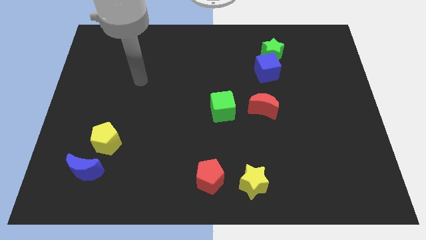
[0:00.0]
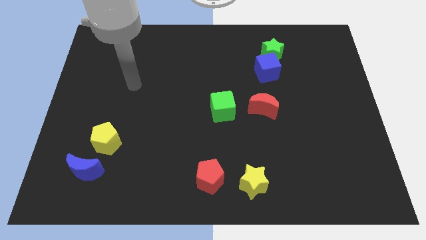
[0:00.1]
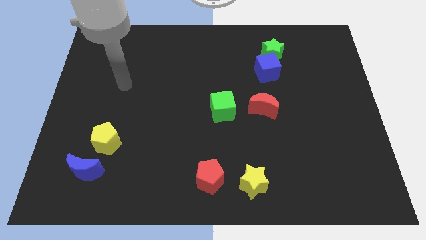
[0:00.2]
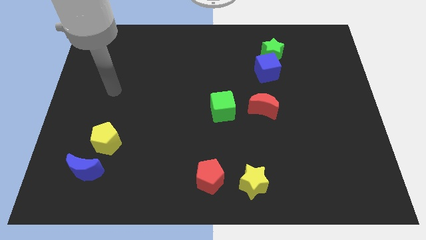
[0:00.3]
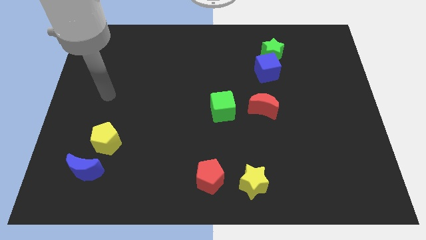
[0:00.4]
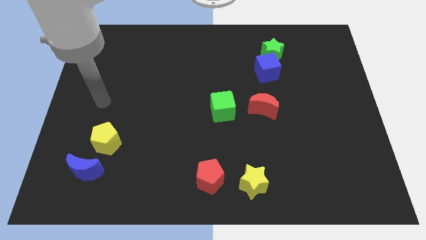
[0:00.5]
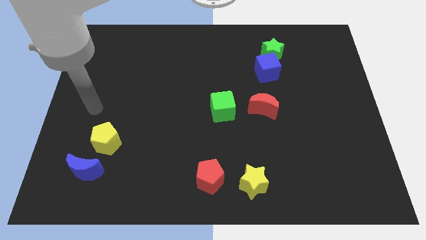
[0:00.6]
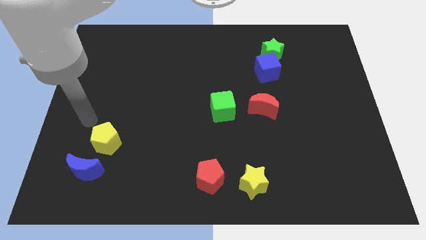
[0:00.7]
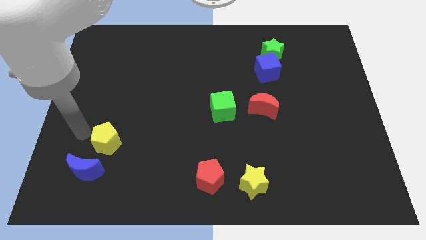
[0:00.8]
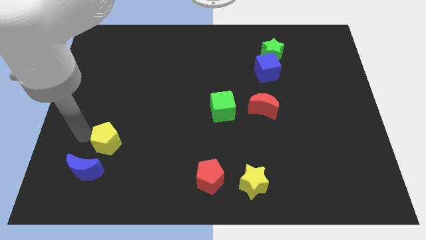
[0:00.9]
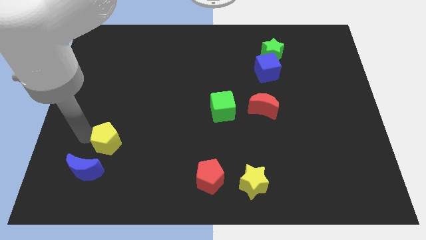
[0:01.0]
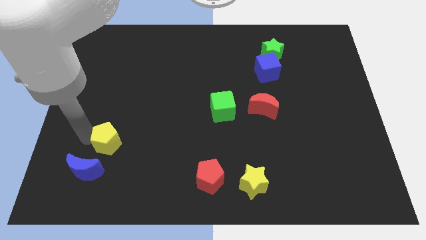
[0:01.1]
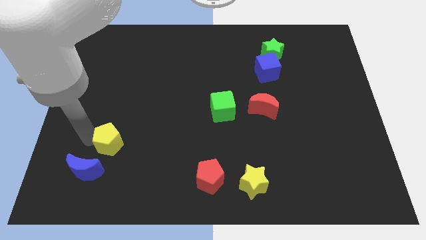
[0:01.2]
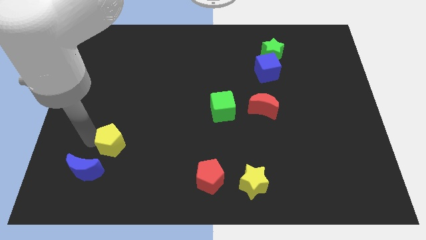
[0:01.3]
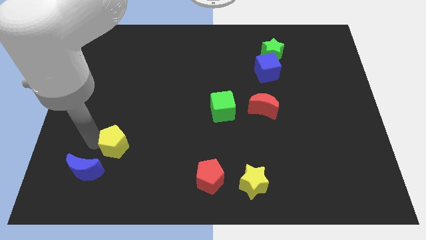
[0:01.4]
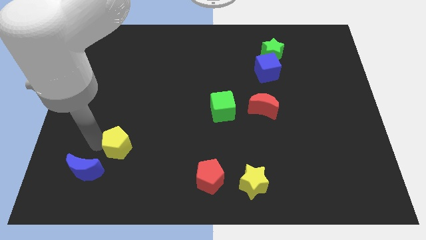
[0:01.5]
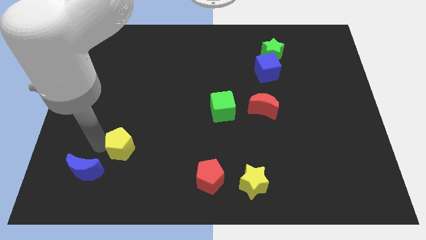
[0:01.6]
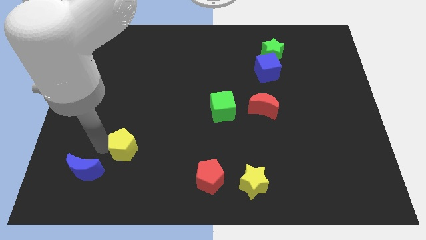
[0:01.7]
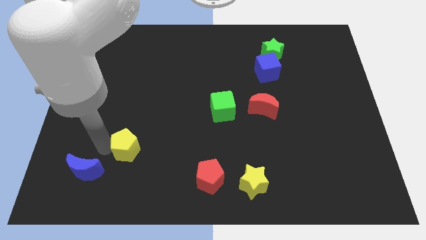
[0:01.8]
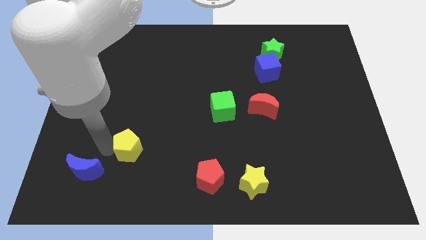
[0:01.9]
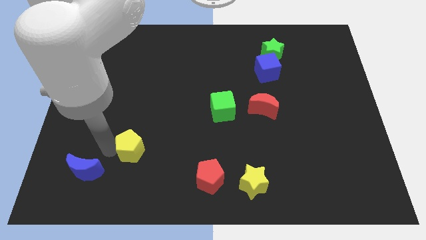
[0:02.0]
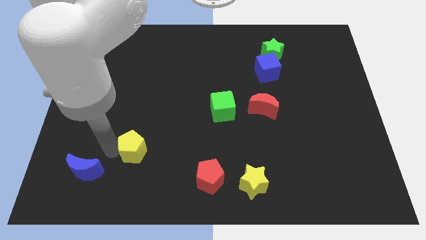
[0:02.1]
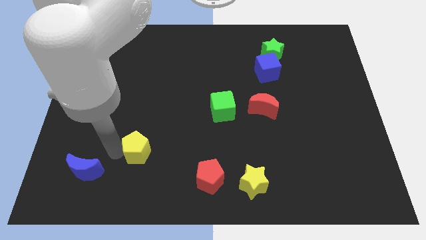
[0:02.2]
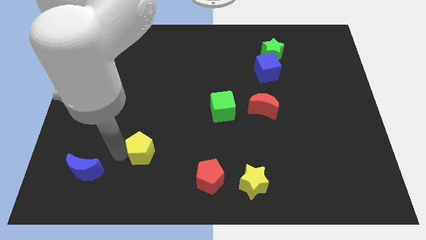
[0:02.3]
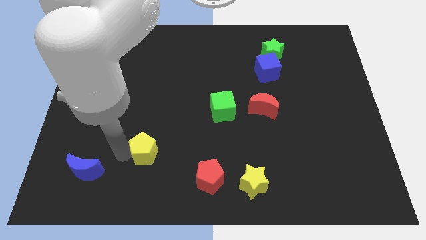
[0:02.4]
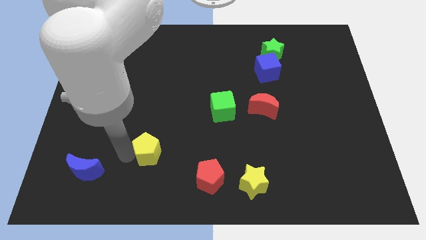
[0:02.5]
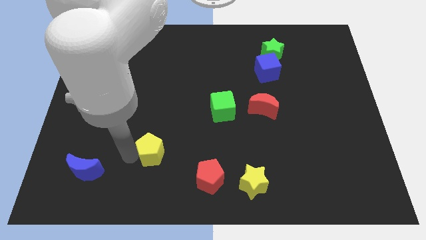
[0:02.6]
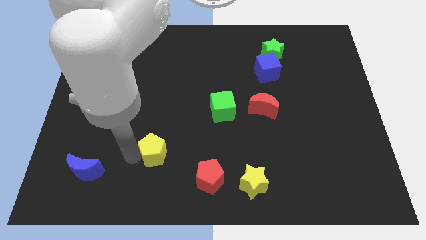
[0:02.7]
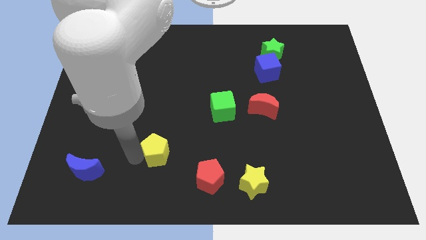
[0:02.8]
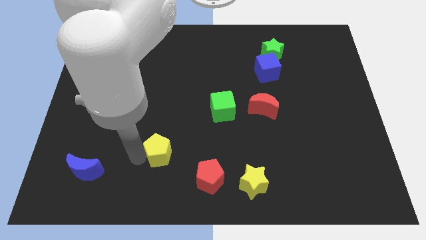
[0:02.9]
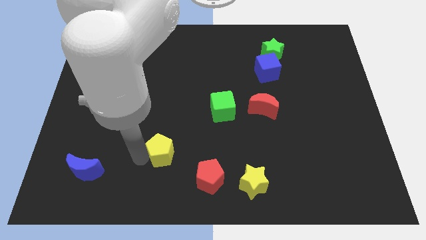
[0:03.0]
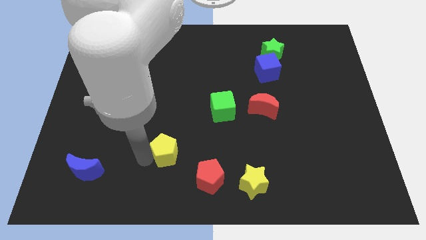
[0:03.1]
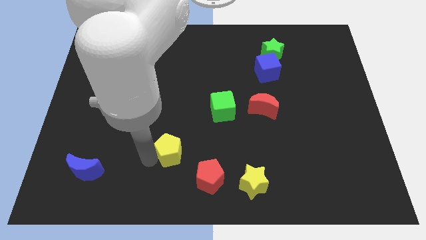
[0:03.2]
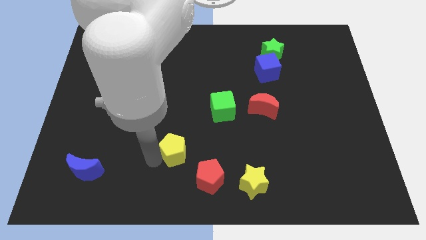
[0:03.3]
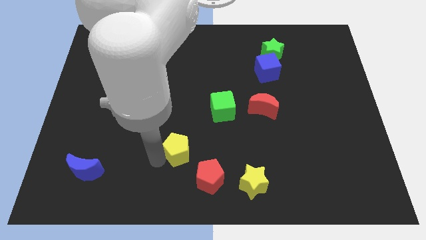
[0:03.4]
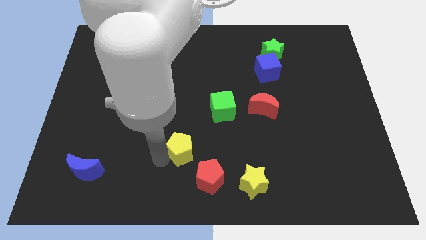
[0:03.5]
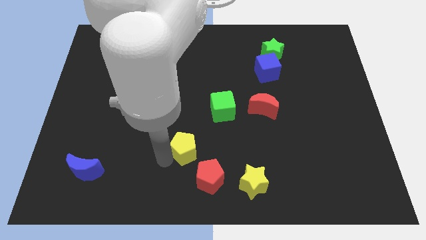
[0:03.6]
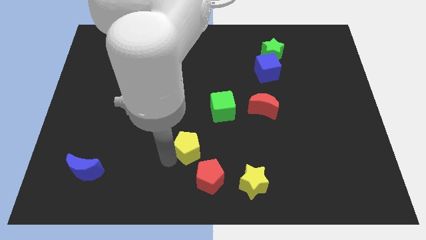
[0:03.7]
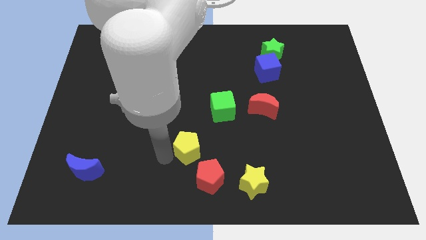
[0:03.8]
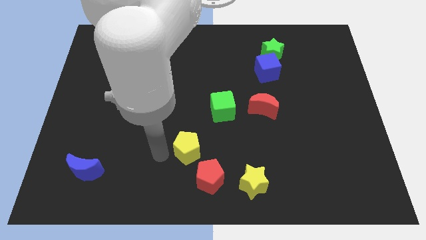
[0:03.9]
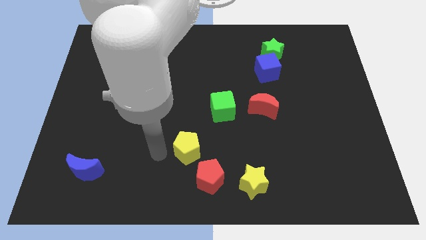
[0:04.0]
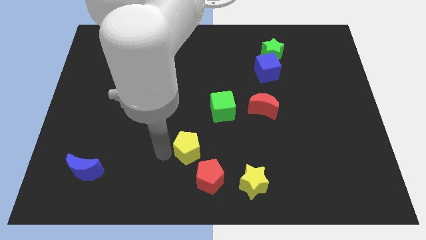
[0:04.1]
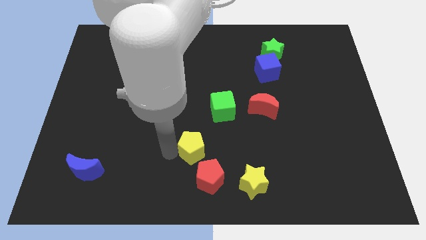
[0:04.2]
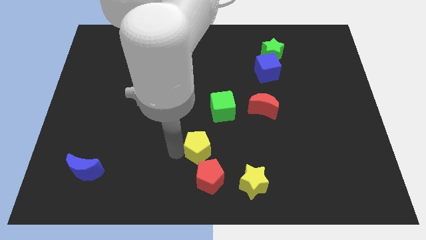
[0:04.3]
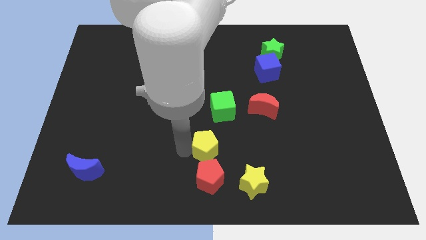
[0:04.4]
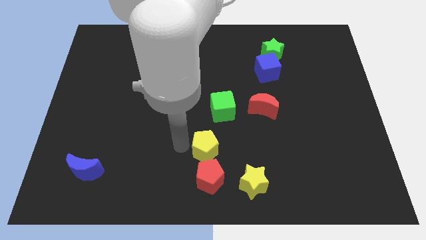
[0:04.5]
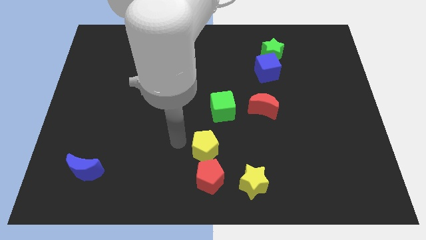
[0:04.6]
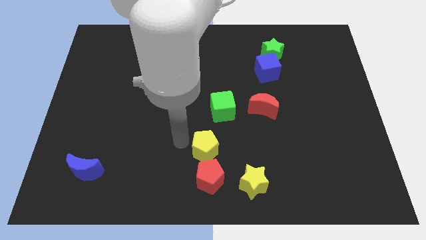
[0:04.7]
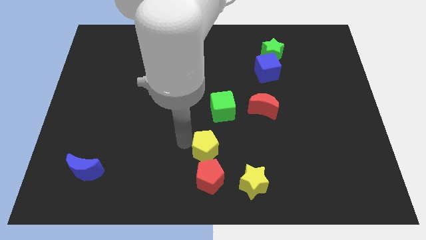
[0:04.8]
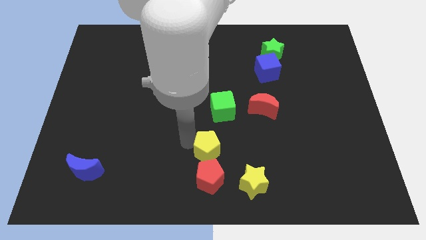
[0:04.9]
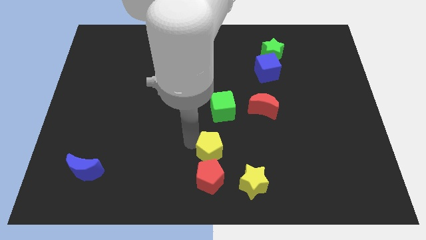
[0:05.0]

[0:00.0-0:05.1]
slide the yellow pentagon to the top right of the red pentagon

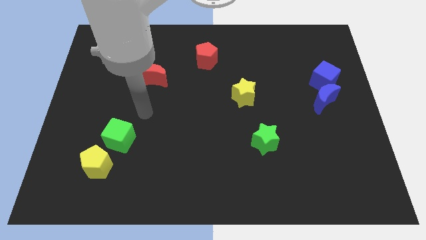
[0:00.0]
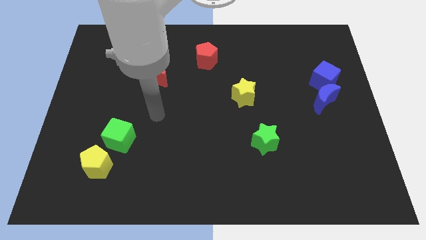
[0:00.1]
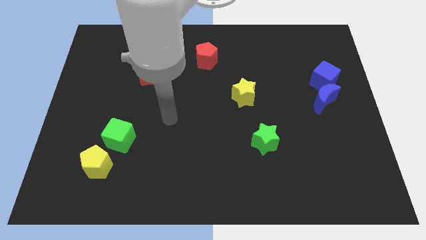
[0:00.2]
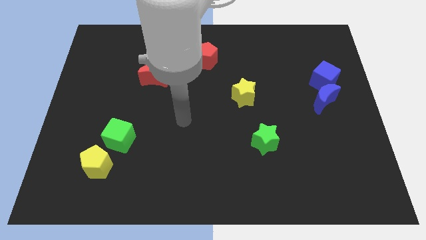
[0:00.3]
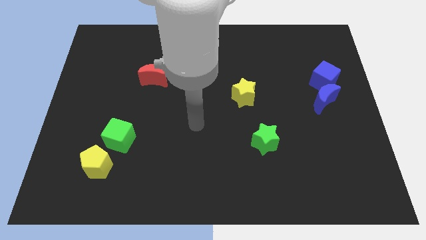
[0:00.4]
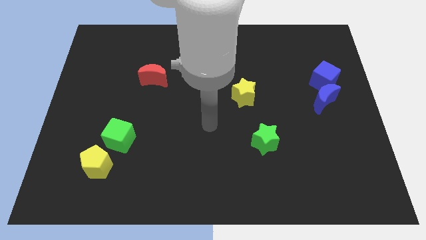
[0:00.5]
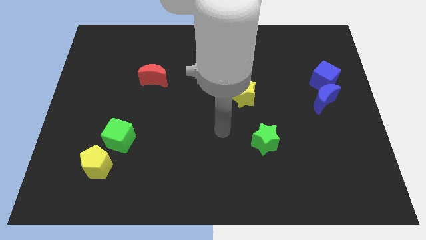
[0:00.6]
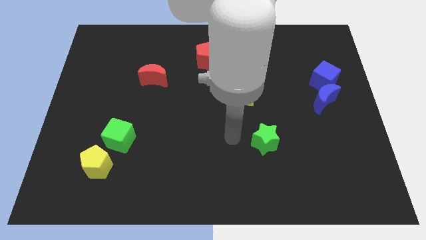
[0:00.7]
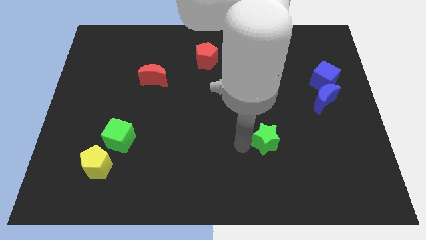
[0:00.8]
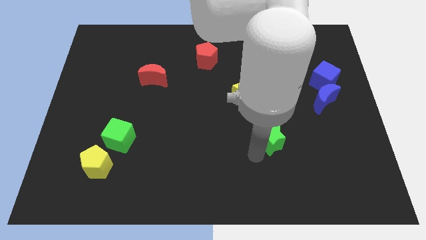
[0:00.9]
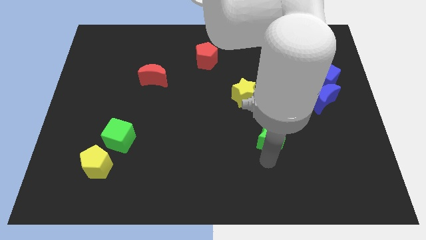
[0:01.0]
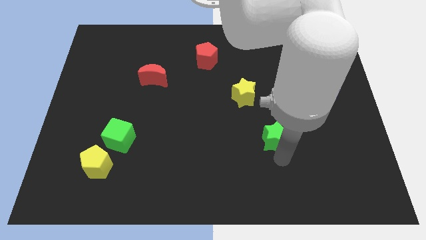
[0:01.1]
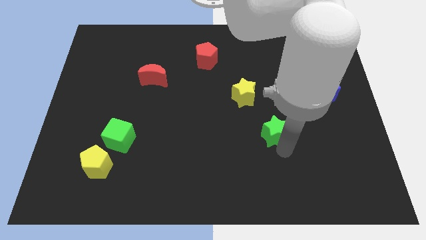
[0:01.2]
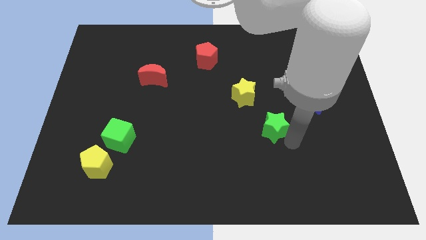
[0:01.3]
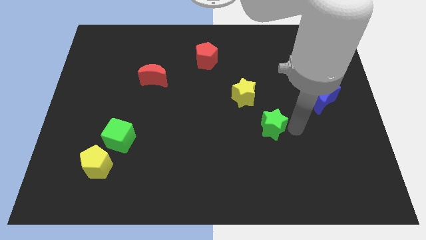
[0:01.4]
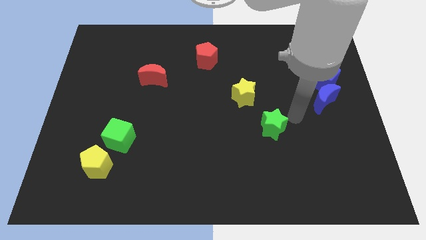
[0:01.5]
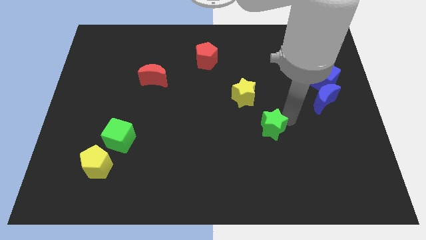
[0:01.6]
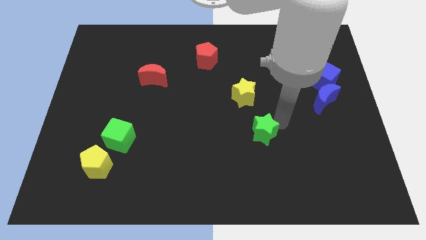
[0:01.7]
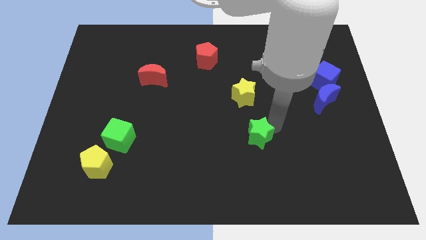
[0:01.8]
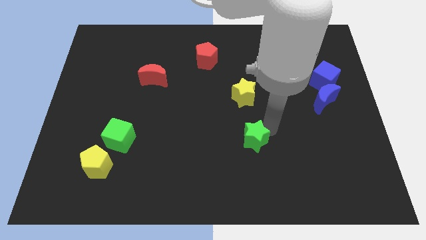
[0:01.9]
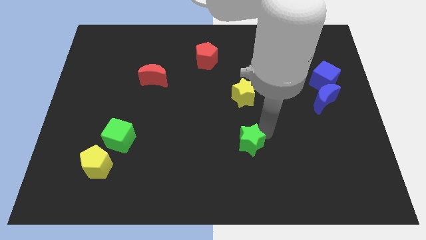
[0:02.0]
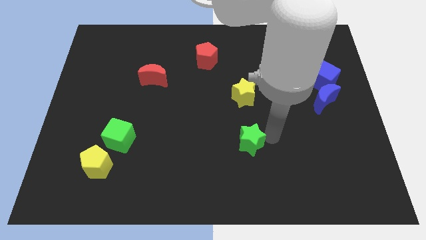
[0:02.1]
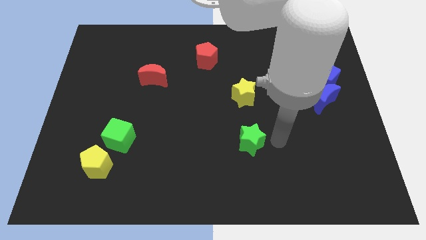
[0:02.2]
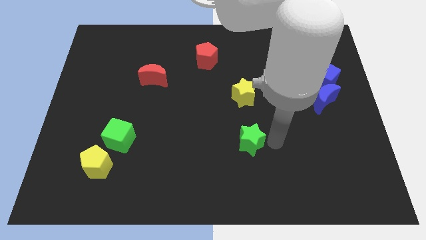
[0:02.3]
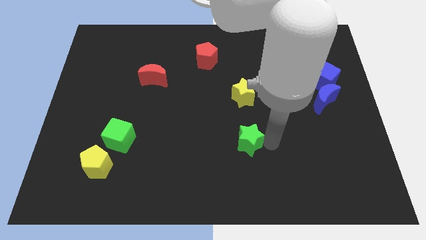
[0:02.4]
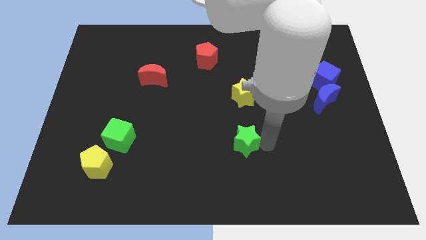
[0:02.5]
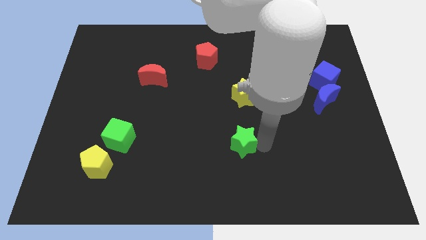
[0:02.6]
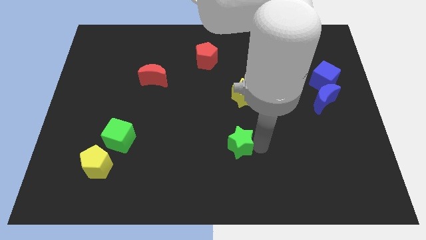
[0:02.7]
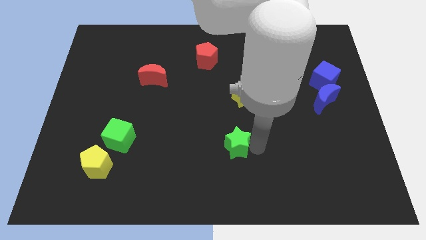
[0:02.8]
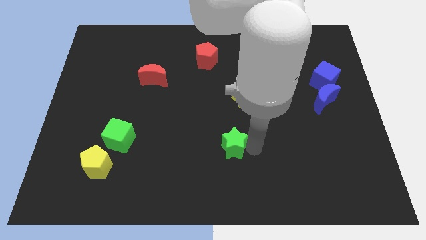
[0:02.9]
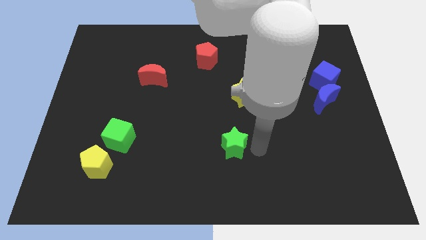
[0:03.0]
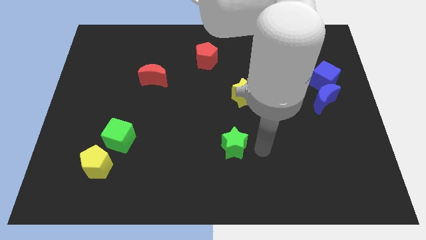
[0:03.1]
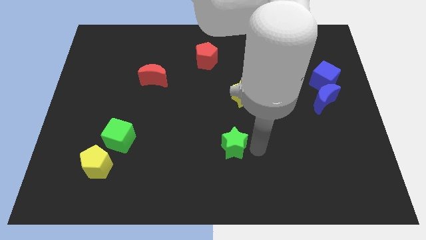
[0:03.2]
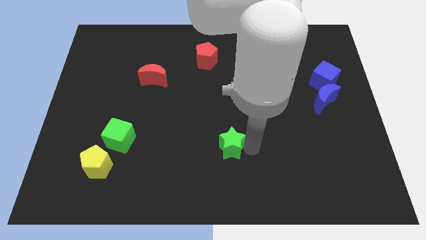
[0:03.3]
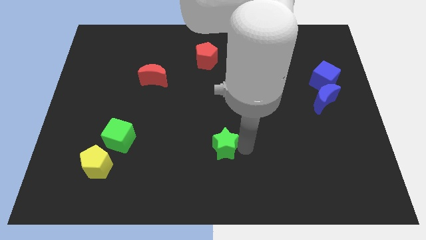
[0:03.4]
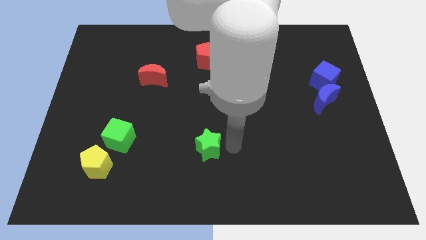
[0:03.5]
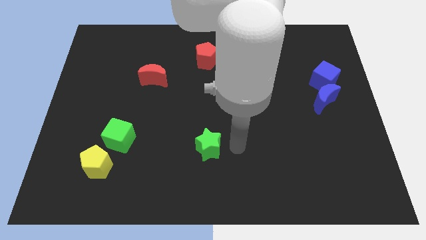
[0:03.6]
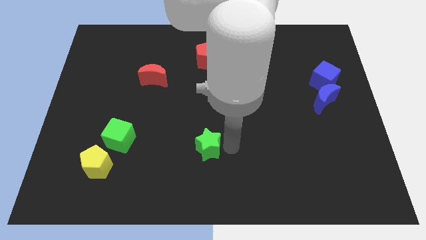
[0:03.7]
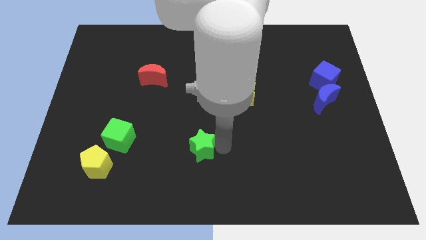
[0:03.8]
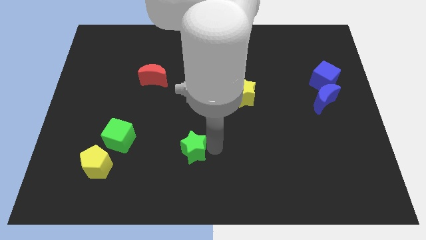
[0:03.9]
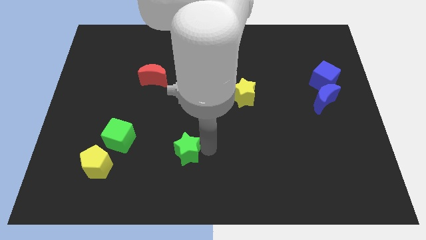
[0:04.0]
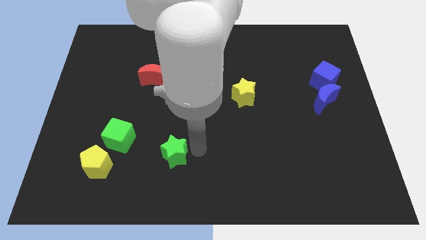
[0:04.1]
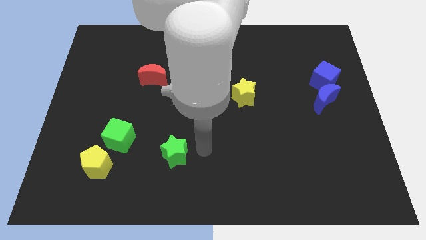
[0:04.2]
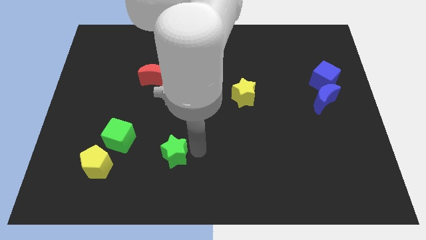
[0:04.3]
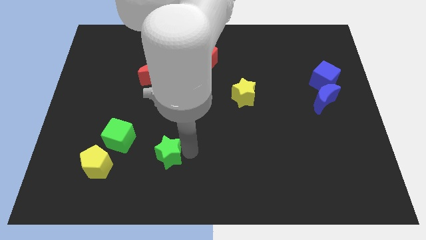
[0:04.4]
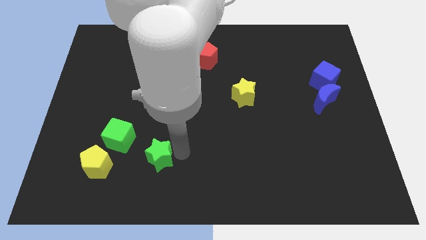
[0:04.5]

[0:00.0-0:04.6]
put the green star to the bottom right of the green cube
